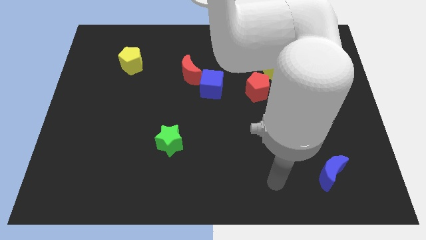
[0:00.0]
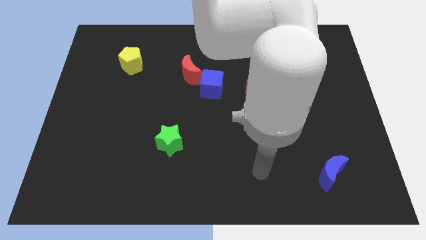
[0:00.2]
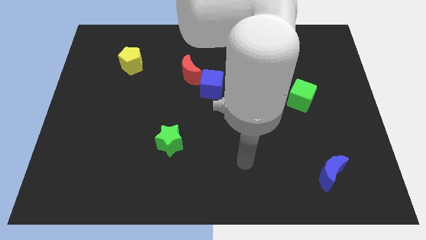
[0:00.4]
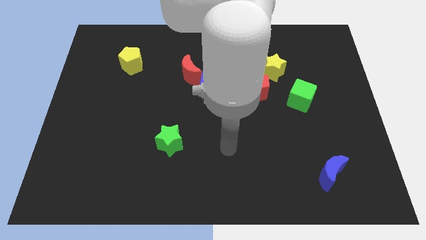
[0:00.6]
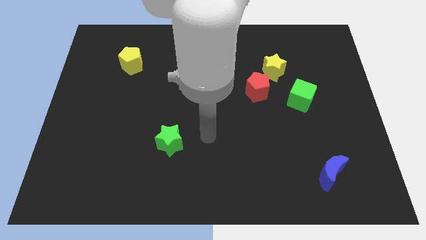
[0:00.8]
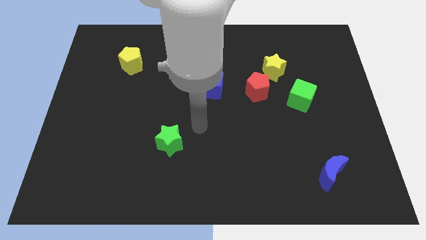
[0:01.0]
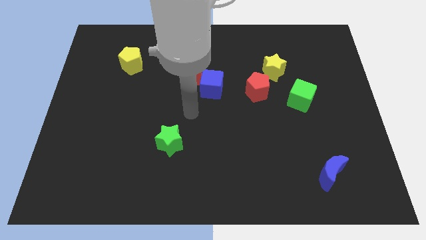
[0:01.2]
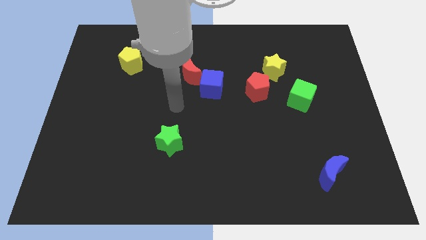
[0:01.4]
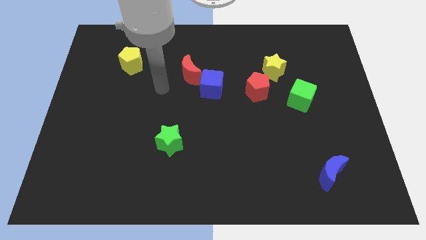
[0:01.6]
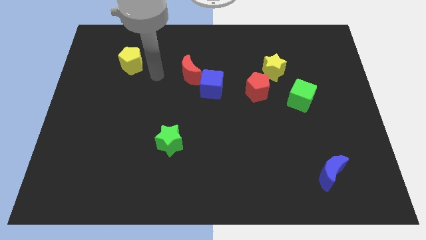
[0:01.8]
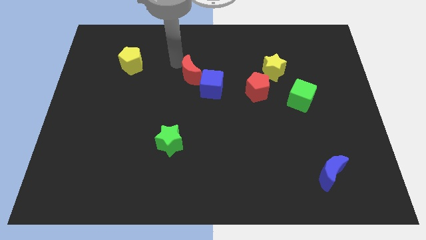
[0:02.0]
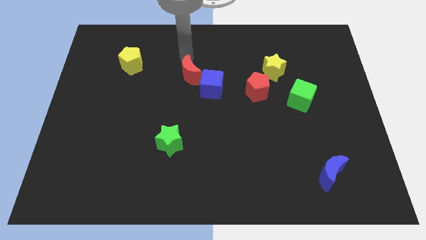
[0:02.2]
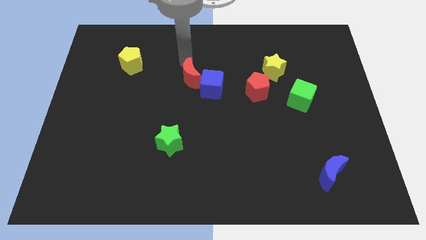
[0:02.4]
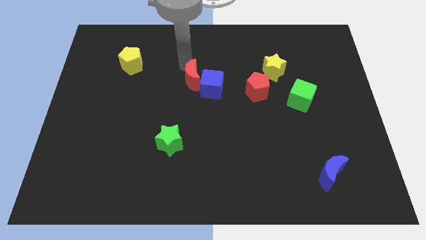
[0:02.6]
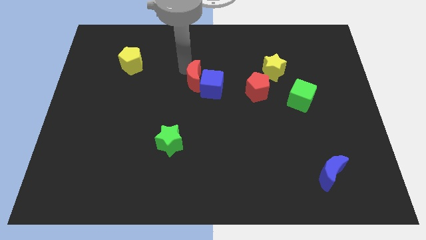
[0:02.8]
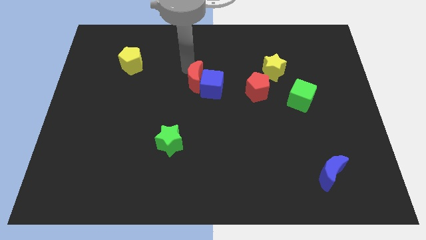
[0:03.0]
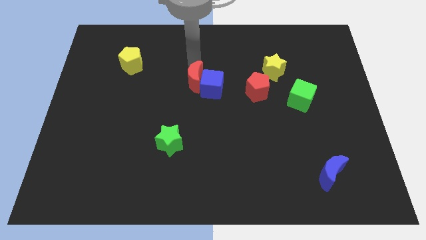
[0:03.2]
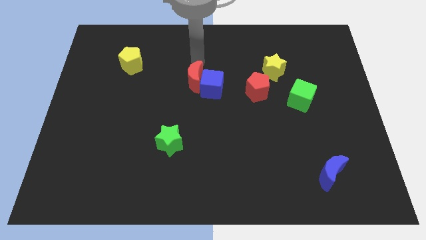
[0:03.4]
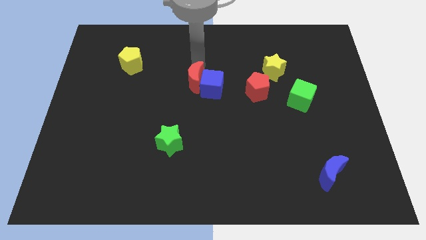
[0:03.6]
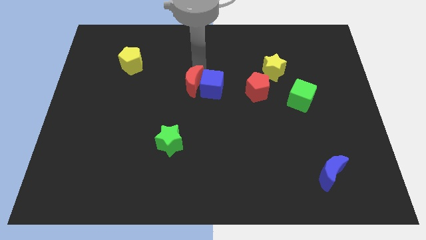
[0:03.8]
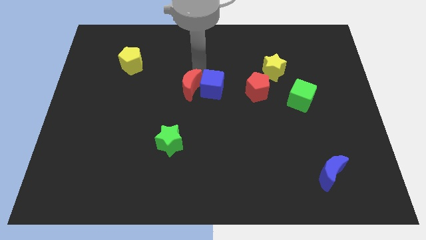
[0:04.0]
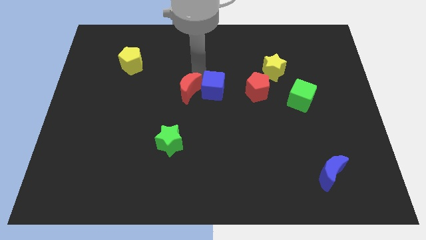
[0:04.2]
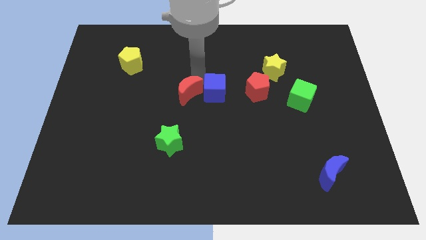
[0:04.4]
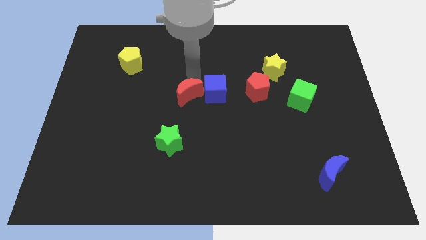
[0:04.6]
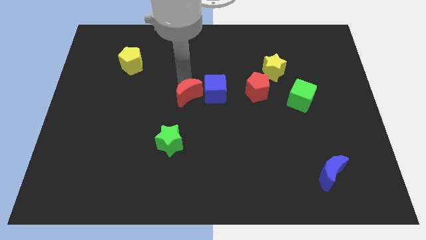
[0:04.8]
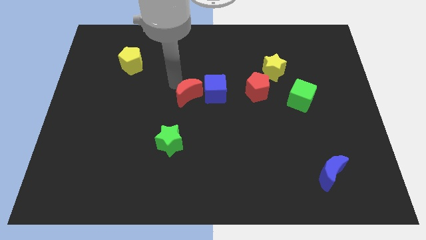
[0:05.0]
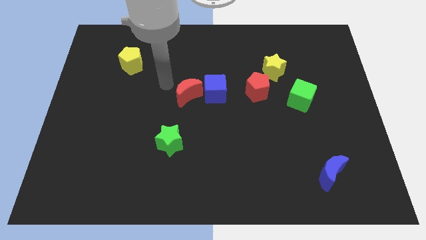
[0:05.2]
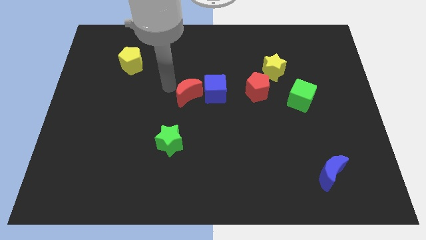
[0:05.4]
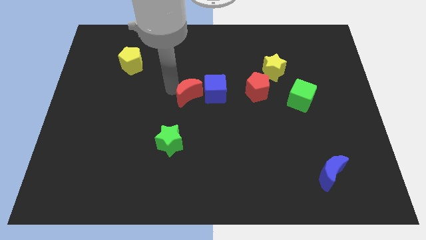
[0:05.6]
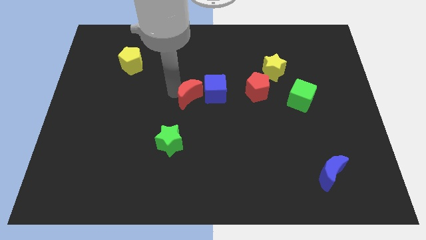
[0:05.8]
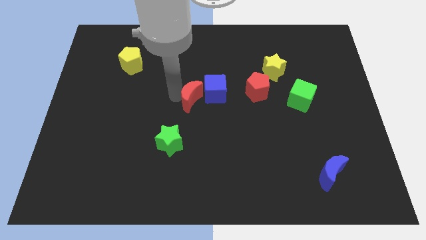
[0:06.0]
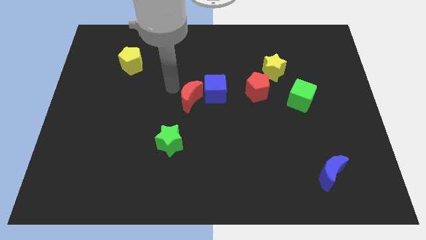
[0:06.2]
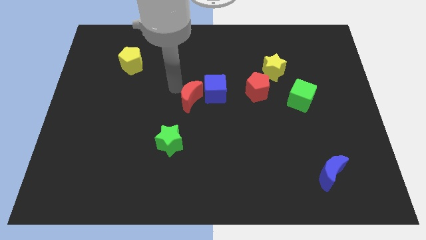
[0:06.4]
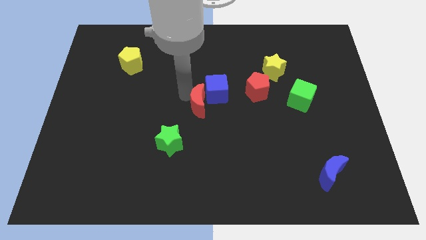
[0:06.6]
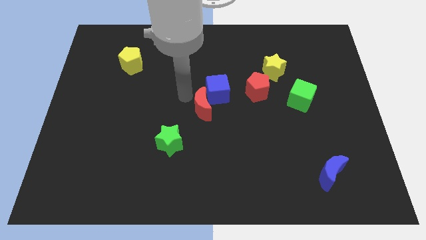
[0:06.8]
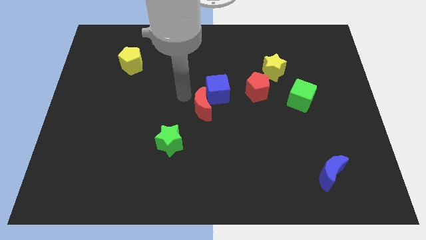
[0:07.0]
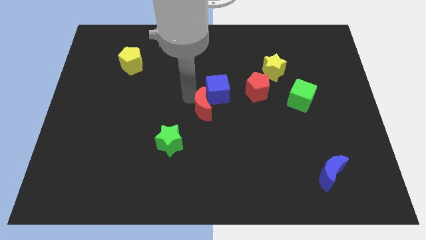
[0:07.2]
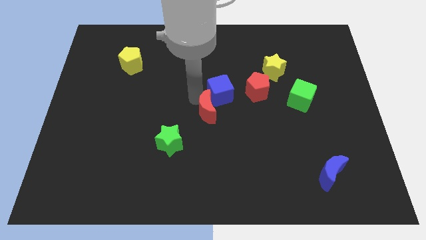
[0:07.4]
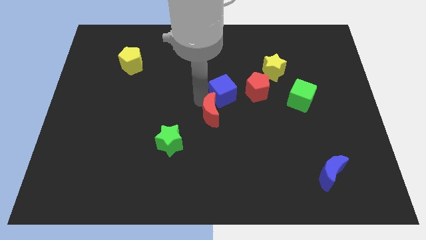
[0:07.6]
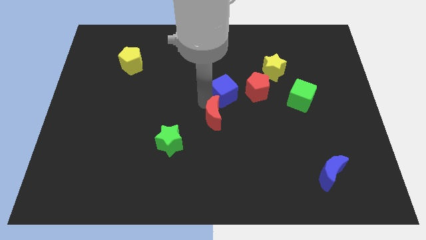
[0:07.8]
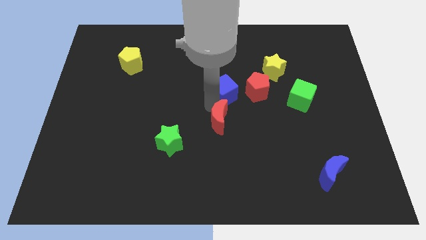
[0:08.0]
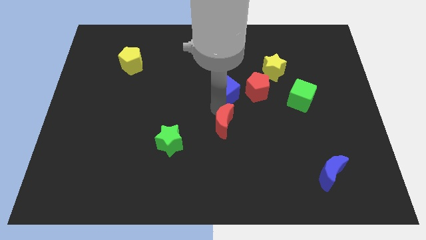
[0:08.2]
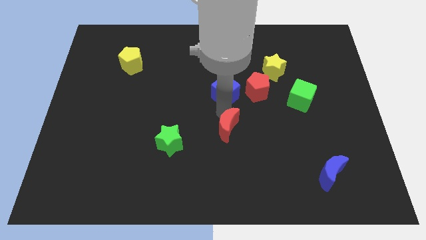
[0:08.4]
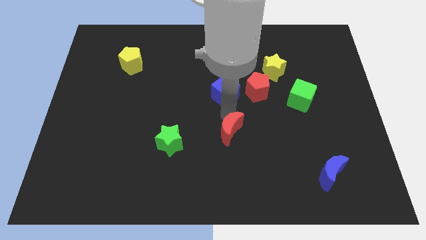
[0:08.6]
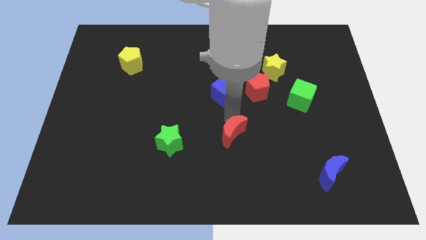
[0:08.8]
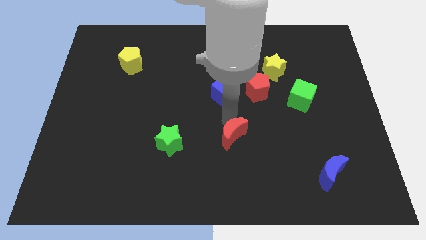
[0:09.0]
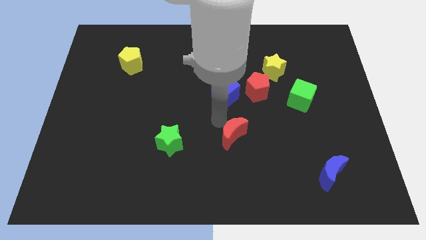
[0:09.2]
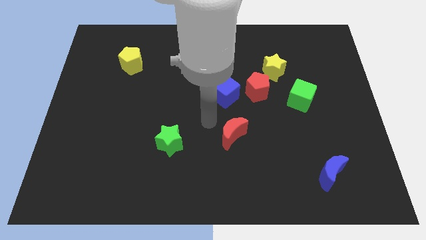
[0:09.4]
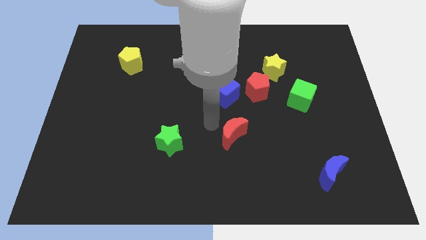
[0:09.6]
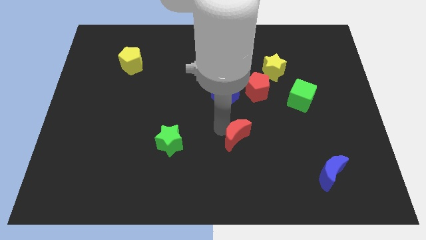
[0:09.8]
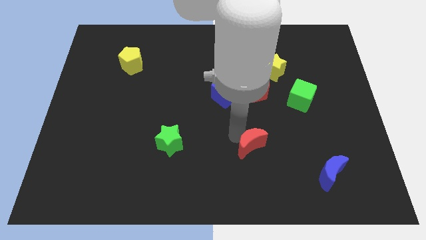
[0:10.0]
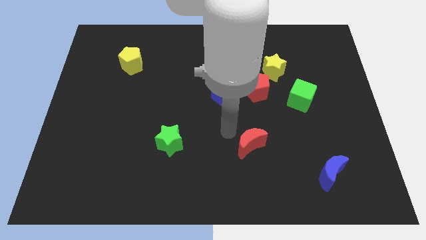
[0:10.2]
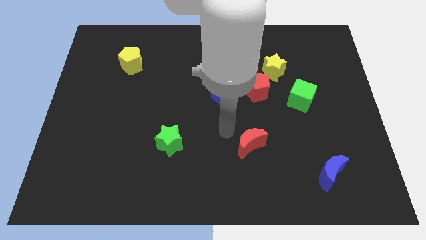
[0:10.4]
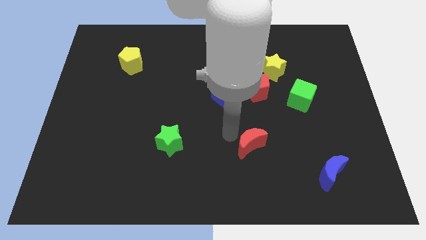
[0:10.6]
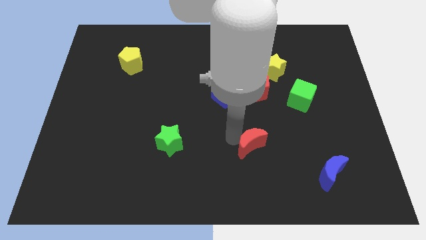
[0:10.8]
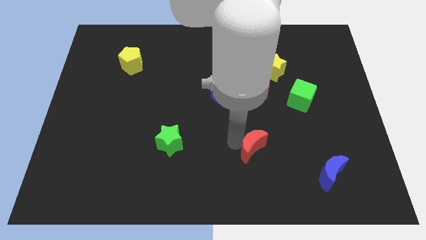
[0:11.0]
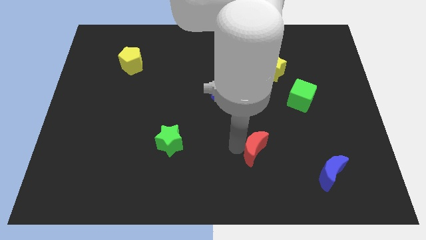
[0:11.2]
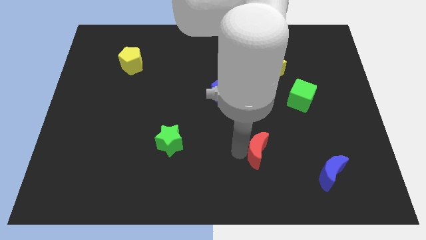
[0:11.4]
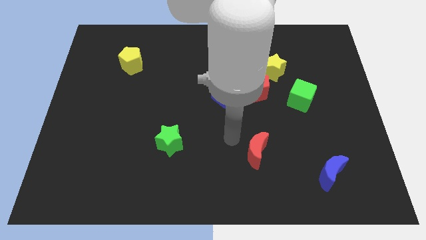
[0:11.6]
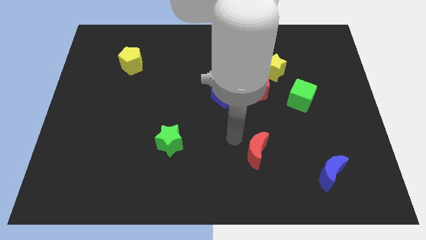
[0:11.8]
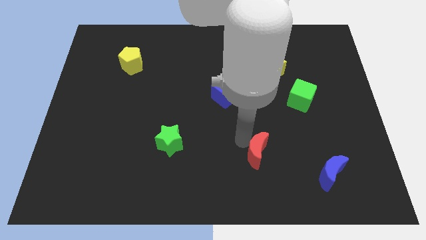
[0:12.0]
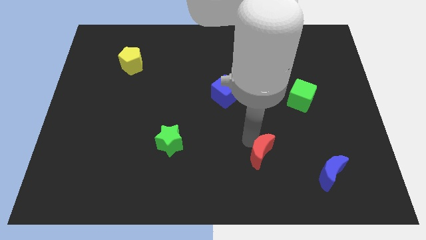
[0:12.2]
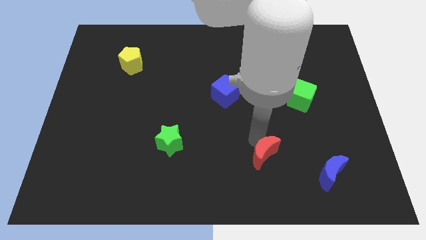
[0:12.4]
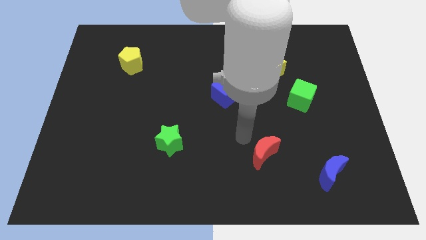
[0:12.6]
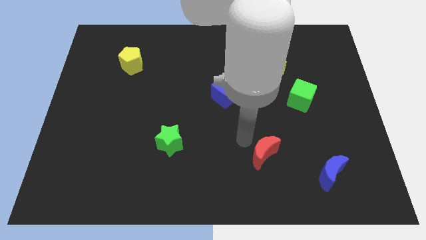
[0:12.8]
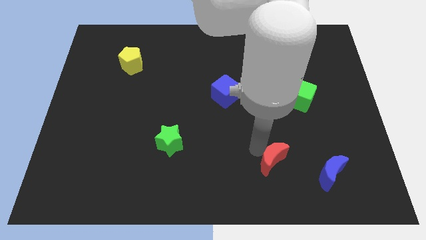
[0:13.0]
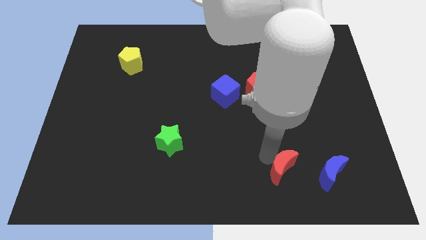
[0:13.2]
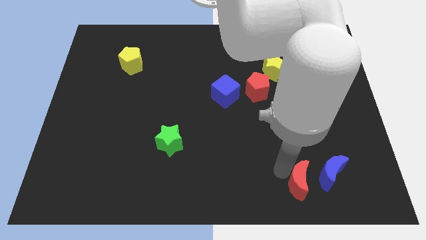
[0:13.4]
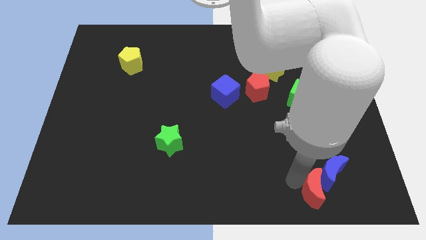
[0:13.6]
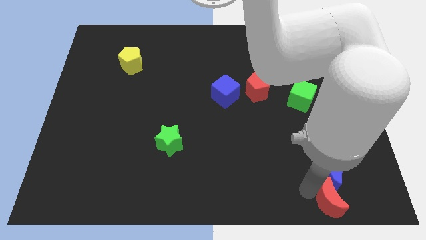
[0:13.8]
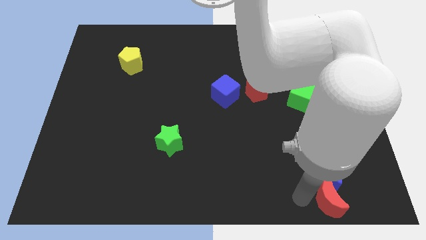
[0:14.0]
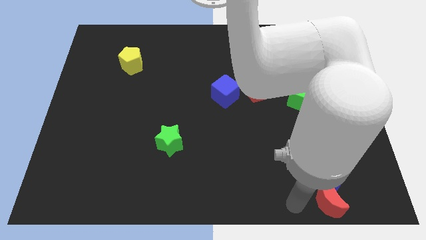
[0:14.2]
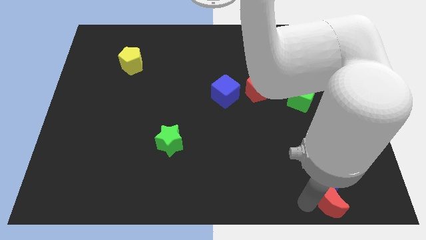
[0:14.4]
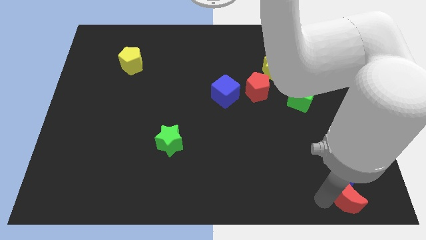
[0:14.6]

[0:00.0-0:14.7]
put the red moon to the bottom right
